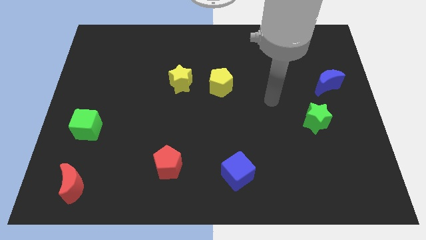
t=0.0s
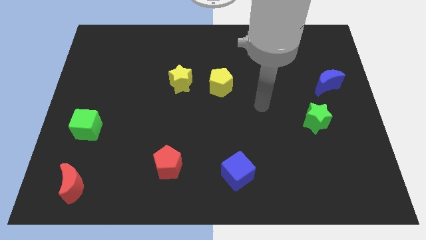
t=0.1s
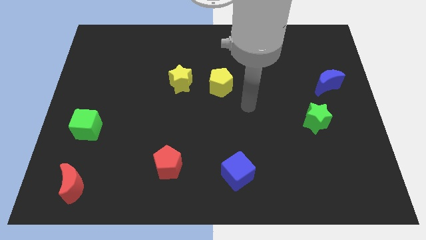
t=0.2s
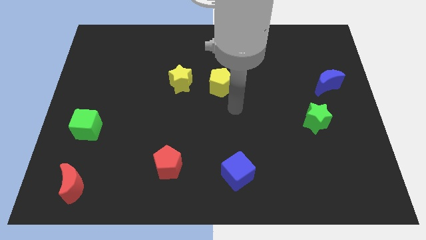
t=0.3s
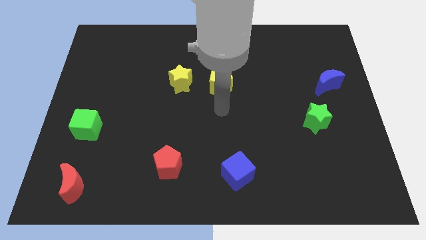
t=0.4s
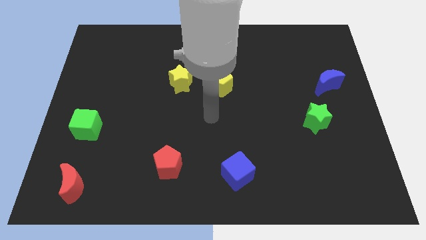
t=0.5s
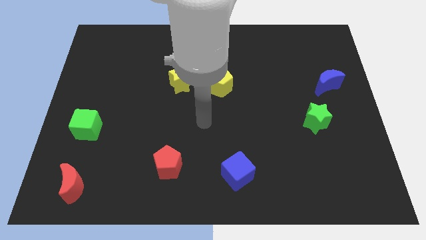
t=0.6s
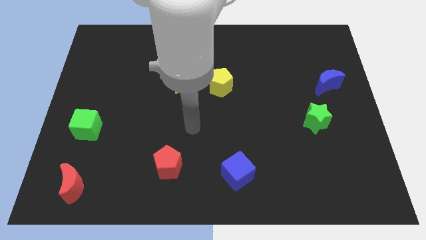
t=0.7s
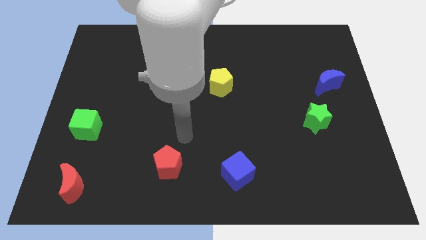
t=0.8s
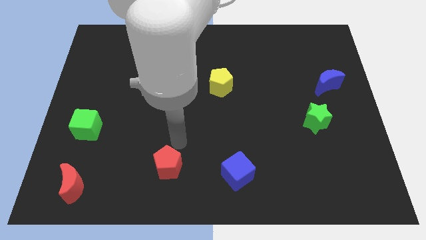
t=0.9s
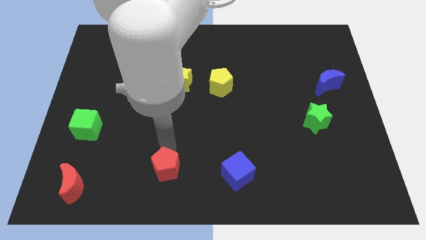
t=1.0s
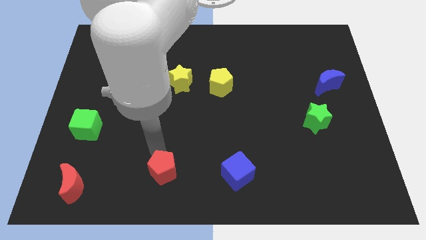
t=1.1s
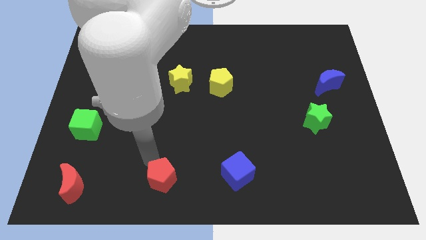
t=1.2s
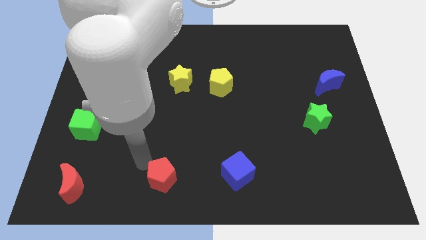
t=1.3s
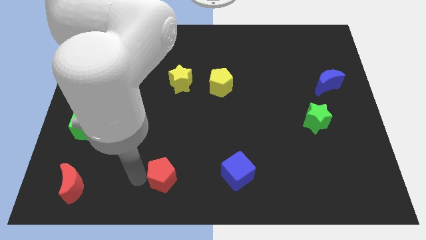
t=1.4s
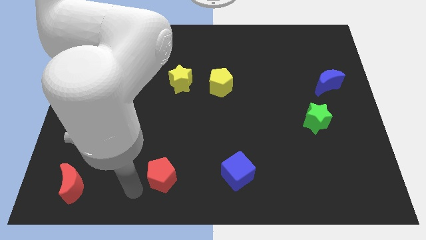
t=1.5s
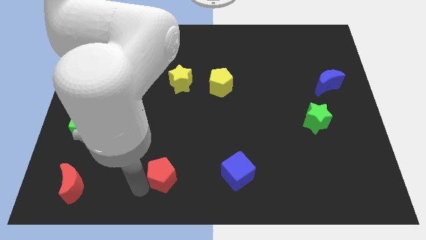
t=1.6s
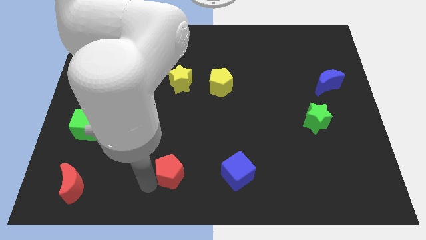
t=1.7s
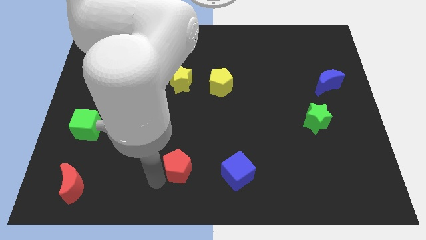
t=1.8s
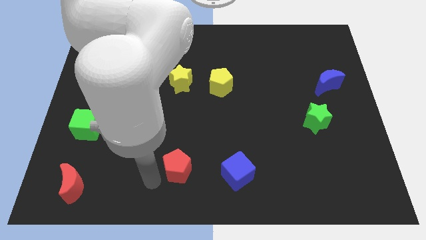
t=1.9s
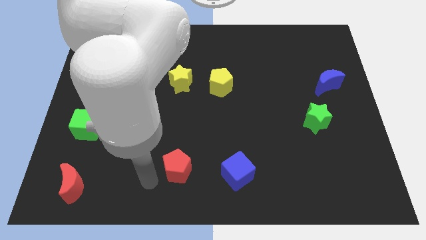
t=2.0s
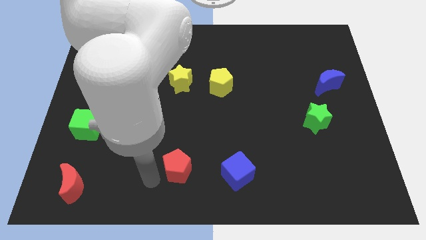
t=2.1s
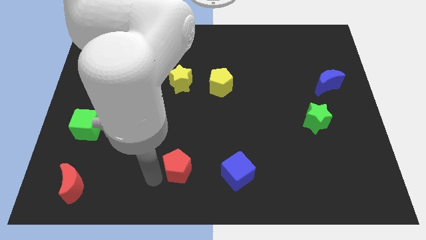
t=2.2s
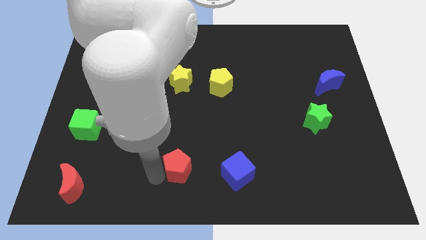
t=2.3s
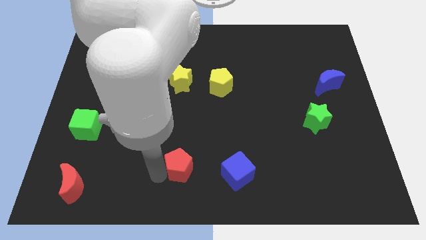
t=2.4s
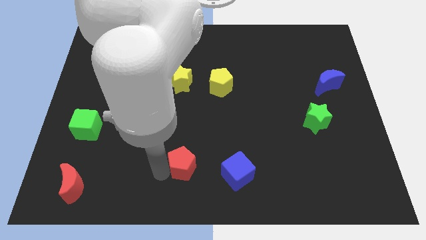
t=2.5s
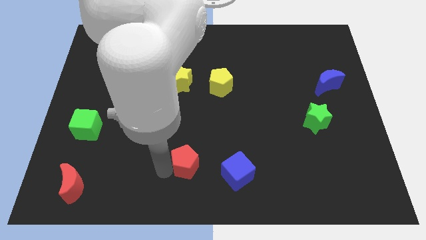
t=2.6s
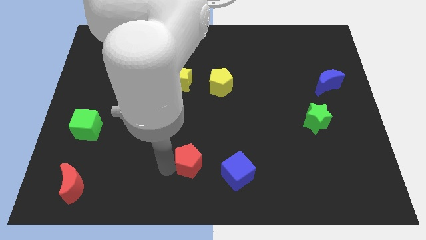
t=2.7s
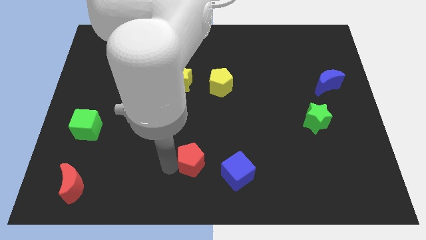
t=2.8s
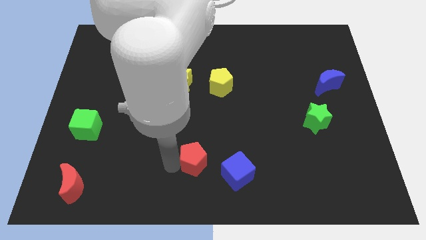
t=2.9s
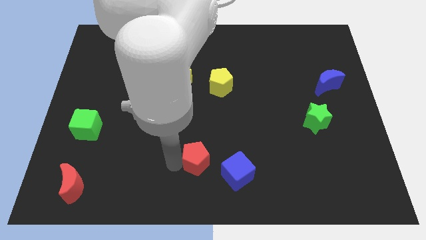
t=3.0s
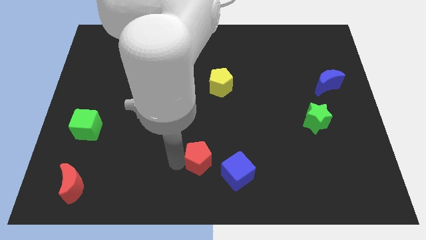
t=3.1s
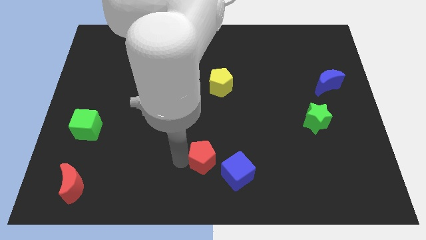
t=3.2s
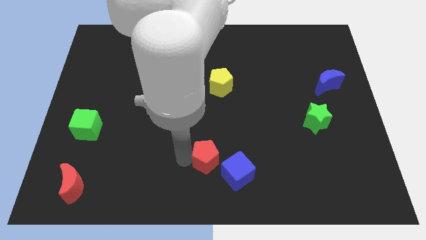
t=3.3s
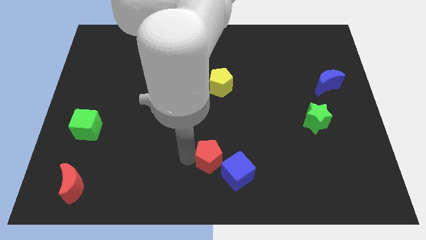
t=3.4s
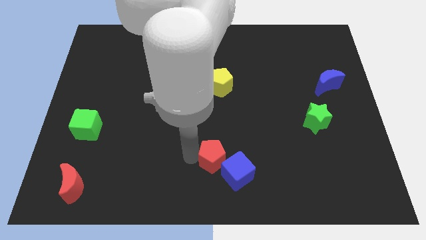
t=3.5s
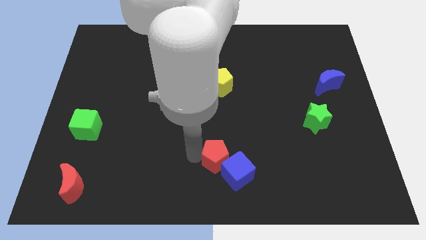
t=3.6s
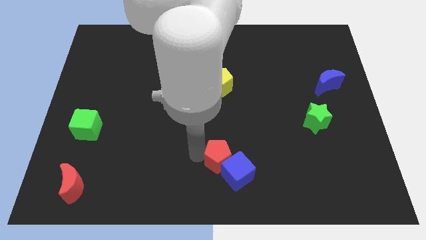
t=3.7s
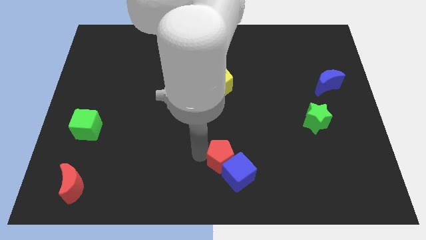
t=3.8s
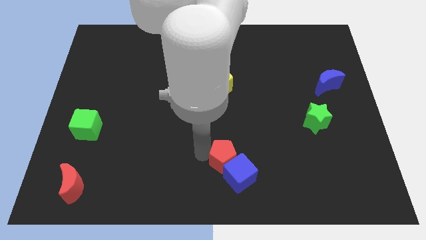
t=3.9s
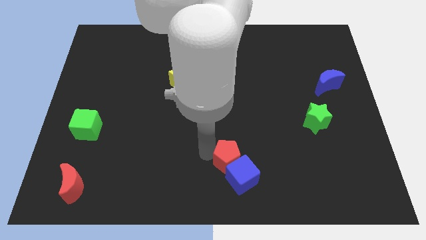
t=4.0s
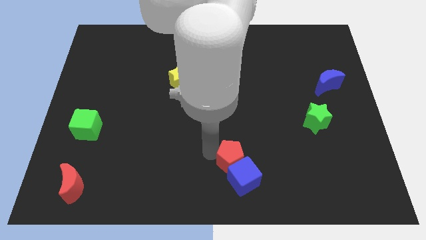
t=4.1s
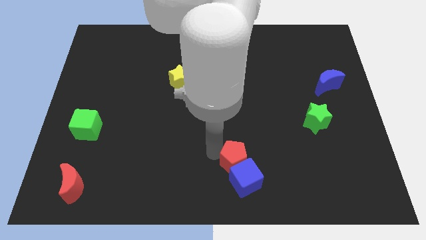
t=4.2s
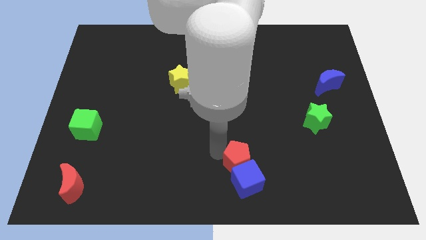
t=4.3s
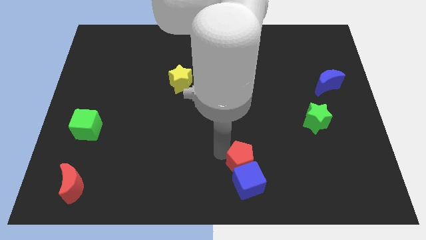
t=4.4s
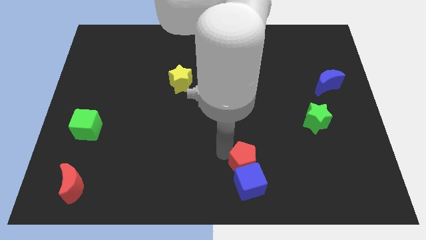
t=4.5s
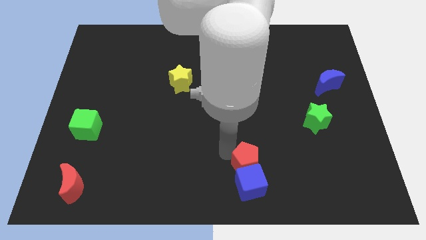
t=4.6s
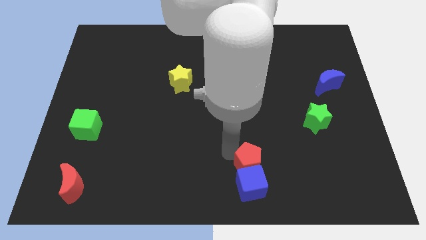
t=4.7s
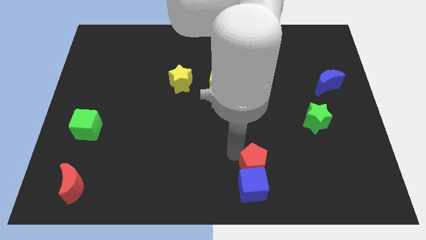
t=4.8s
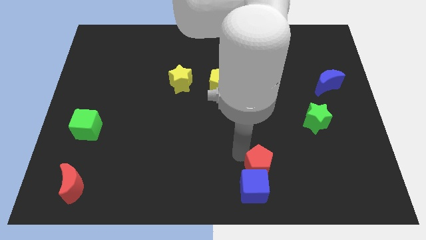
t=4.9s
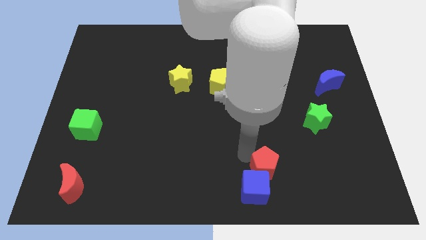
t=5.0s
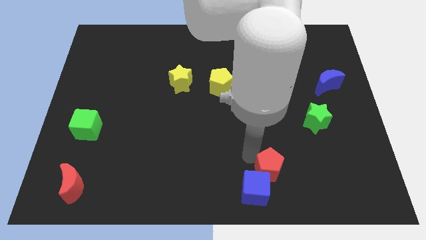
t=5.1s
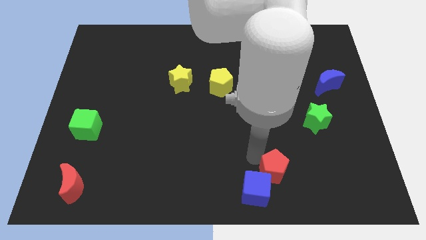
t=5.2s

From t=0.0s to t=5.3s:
slide the red pentagon just right of the blue cube

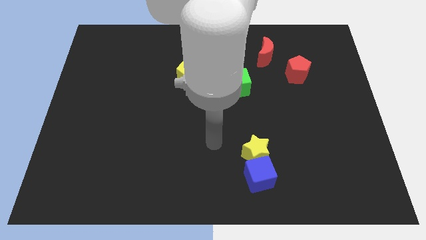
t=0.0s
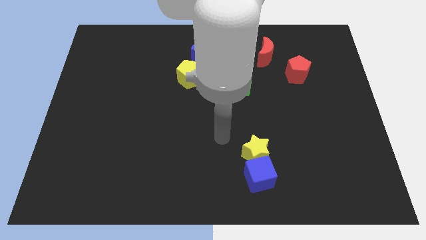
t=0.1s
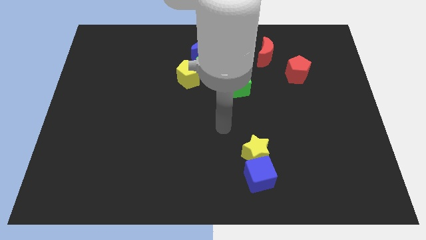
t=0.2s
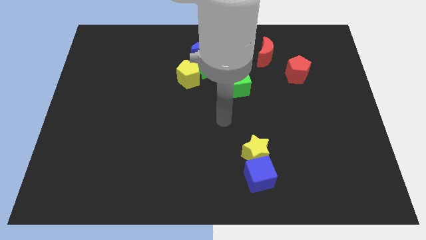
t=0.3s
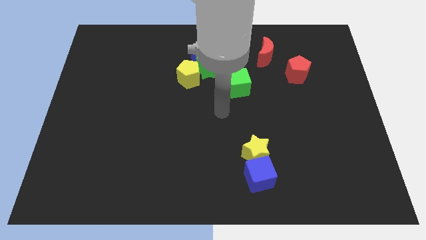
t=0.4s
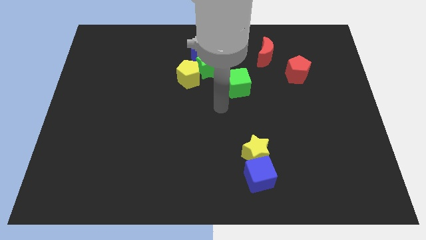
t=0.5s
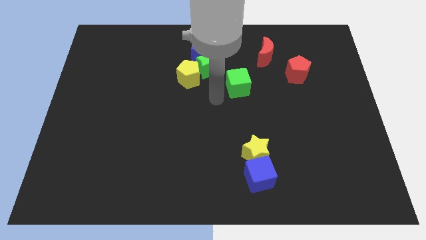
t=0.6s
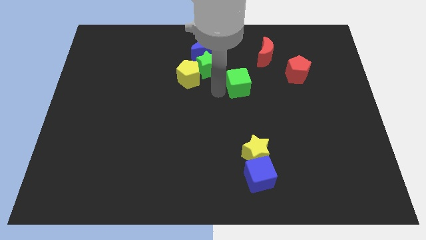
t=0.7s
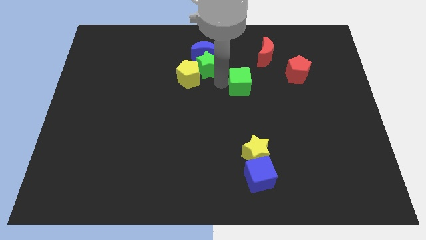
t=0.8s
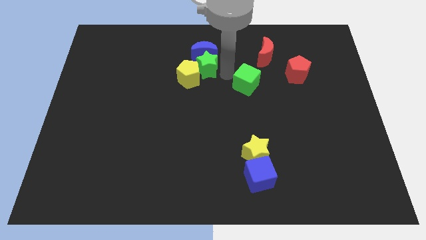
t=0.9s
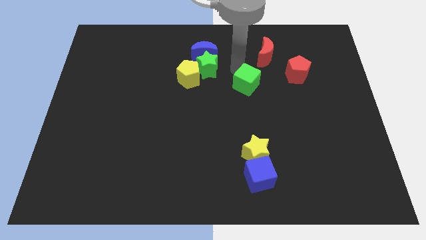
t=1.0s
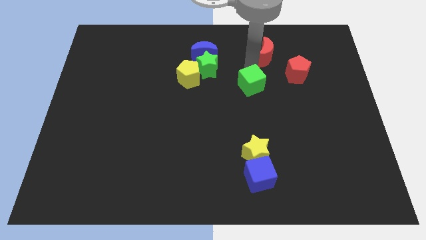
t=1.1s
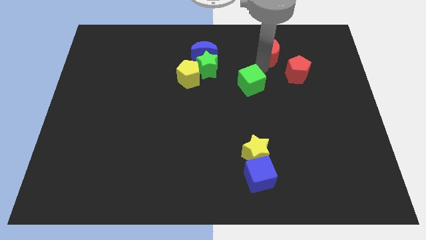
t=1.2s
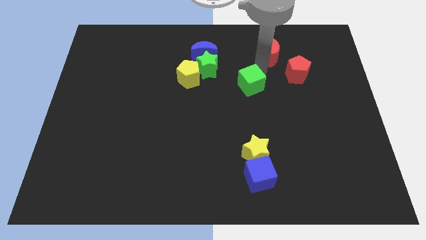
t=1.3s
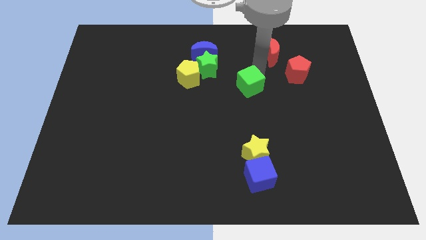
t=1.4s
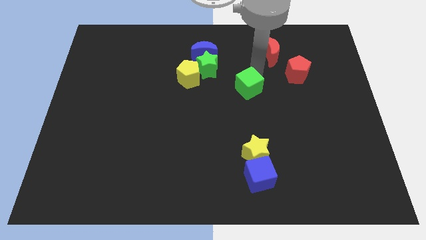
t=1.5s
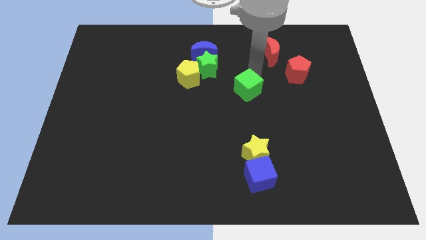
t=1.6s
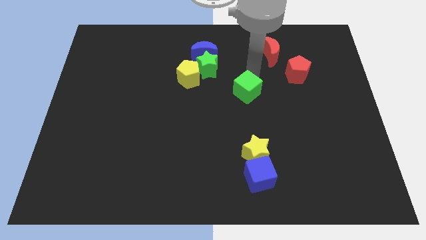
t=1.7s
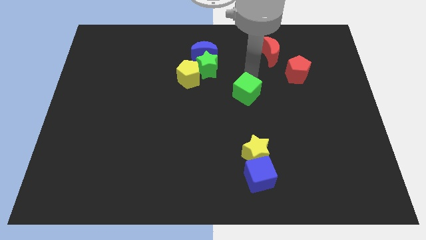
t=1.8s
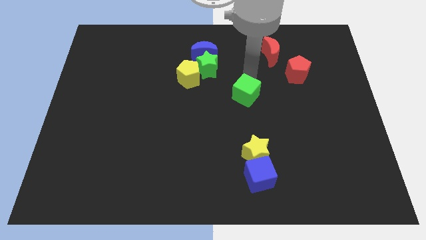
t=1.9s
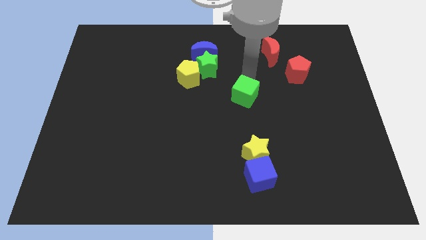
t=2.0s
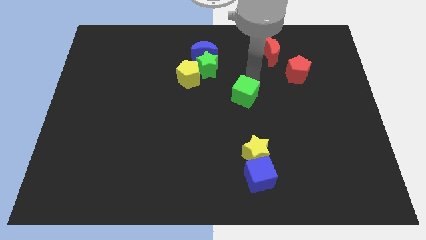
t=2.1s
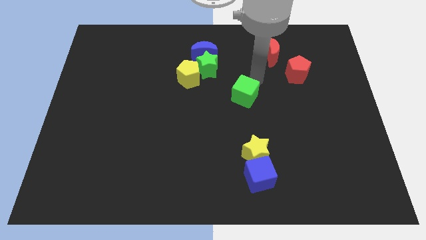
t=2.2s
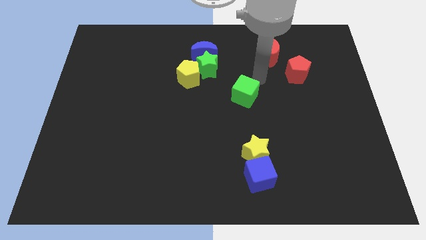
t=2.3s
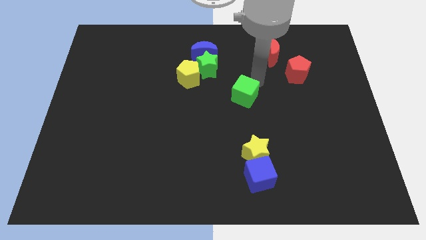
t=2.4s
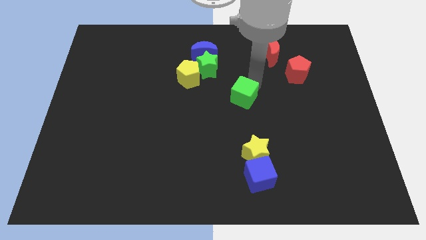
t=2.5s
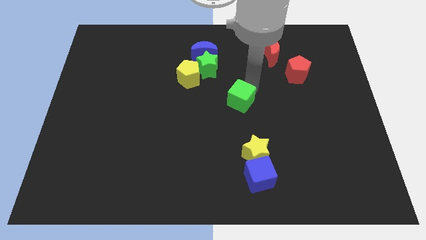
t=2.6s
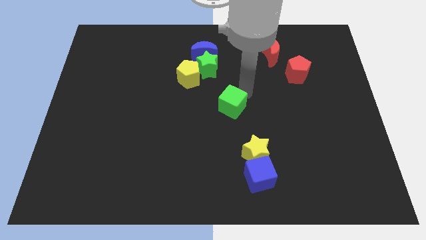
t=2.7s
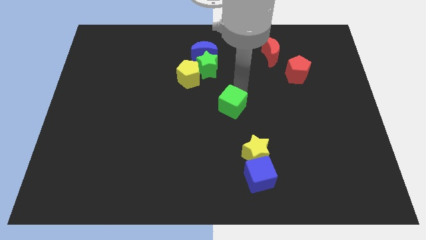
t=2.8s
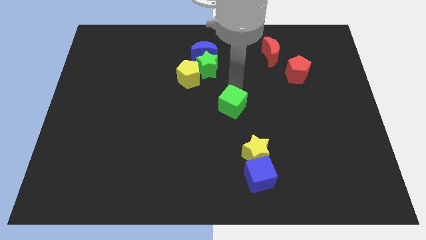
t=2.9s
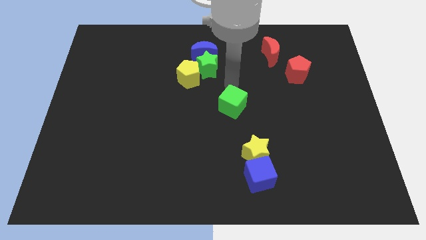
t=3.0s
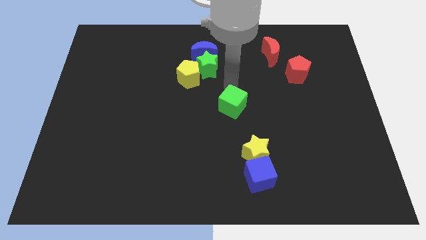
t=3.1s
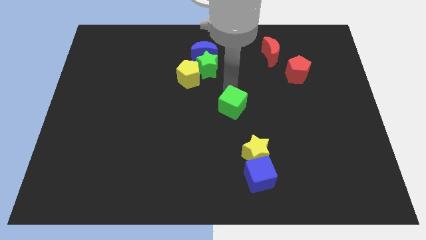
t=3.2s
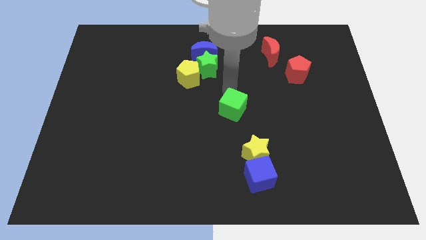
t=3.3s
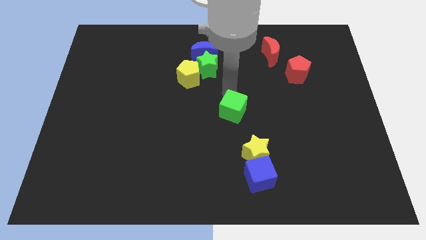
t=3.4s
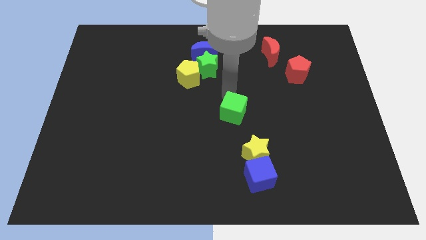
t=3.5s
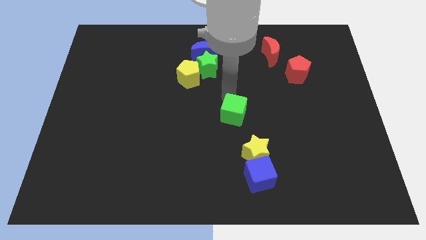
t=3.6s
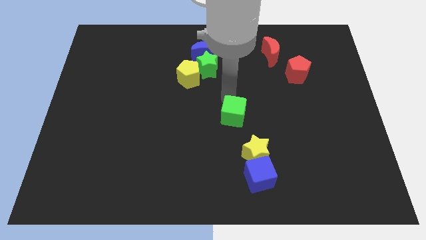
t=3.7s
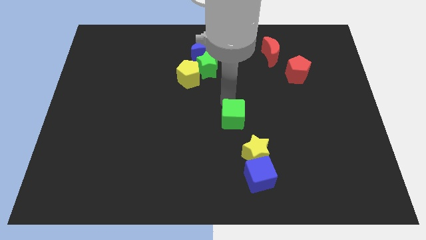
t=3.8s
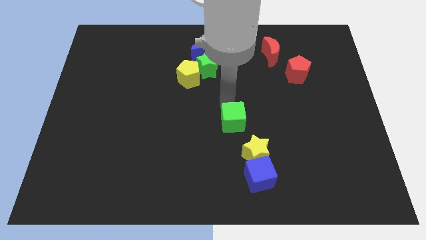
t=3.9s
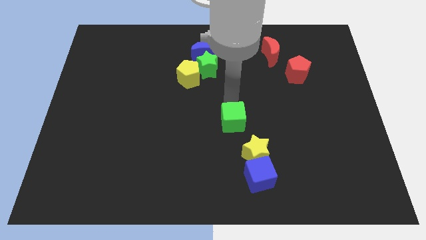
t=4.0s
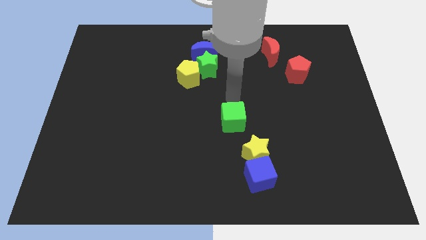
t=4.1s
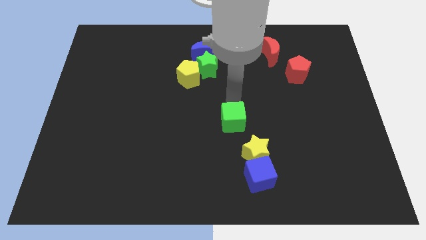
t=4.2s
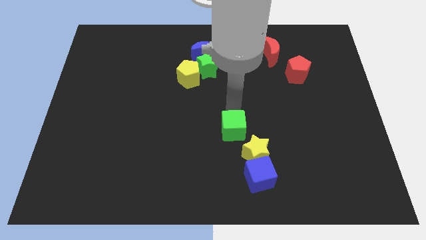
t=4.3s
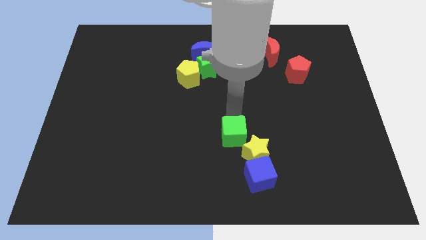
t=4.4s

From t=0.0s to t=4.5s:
slide the green cube diagonally up and to the left of the blue cube
